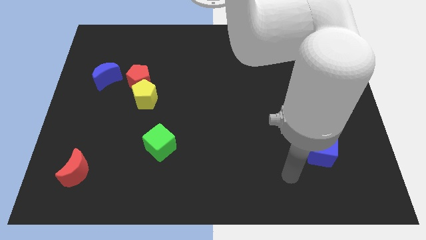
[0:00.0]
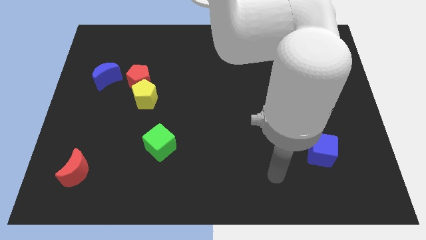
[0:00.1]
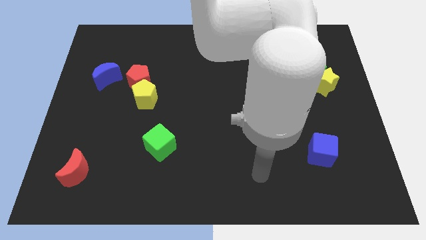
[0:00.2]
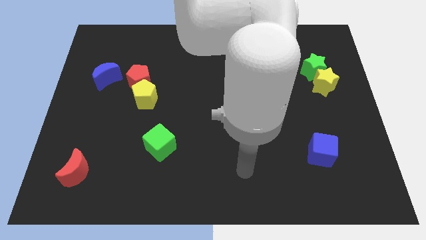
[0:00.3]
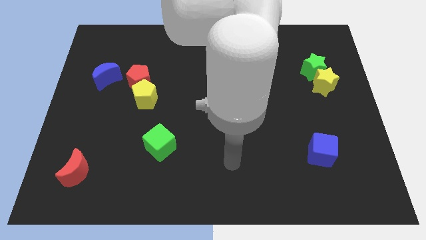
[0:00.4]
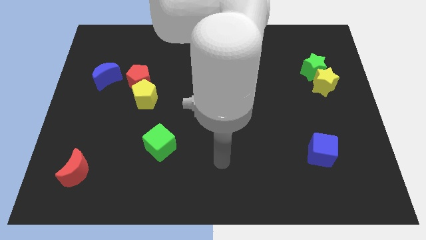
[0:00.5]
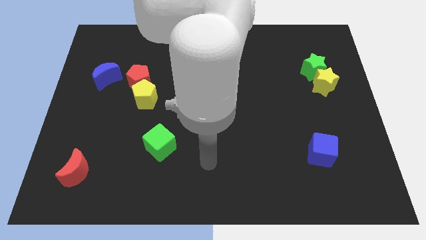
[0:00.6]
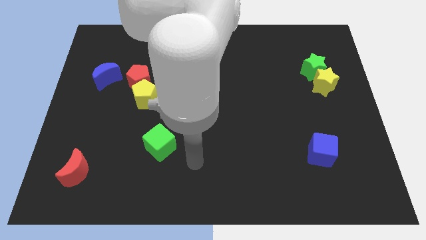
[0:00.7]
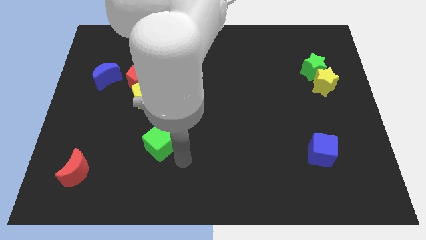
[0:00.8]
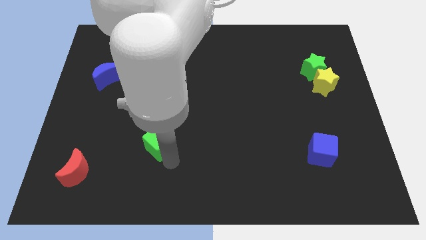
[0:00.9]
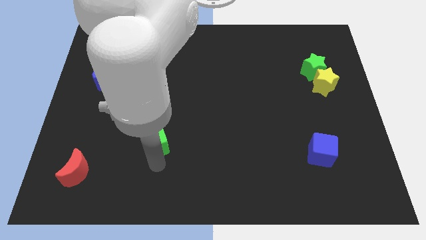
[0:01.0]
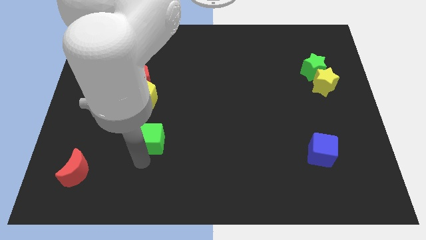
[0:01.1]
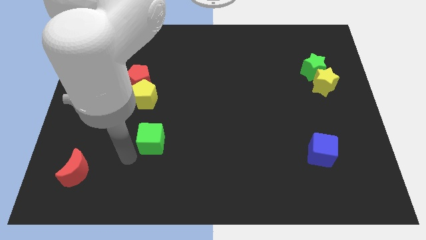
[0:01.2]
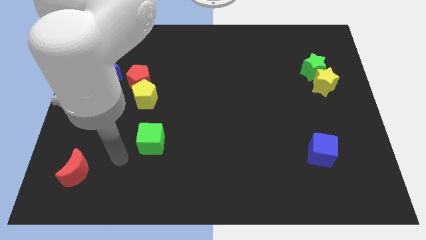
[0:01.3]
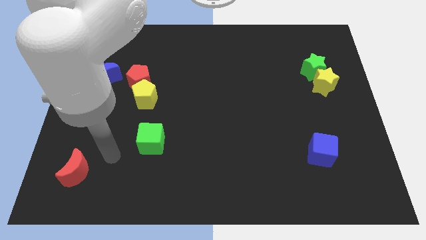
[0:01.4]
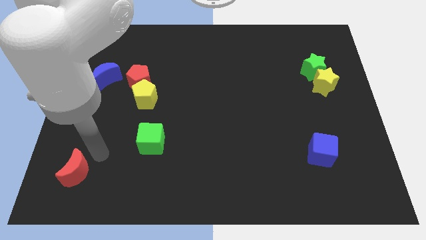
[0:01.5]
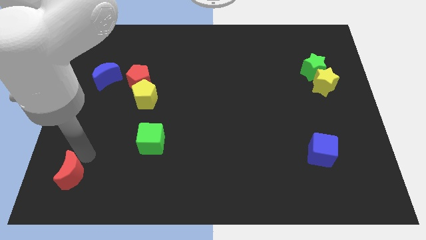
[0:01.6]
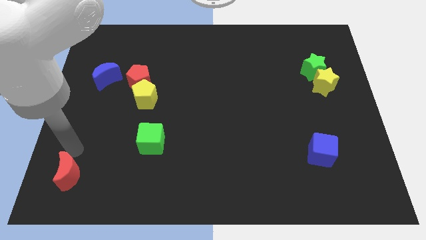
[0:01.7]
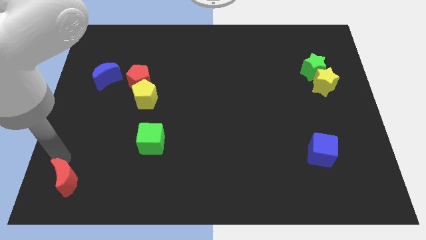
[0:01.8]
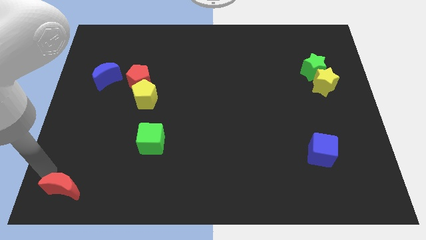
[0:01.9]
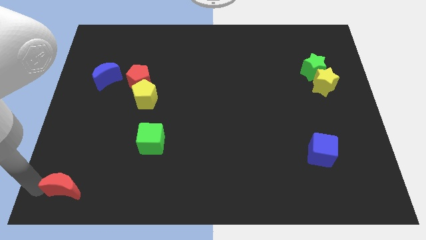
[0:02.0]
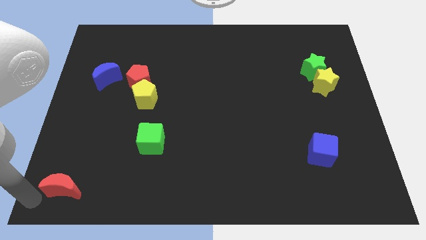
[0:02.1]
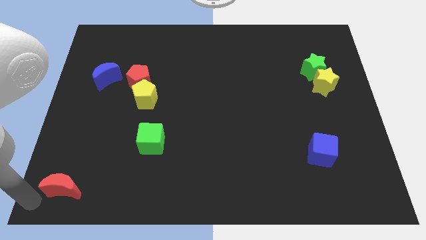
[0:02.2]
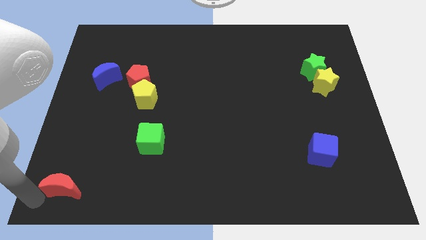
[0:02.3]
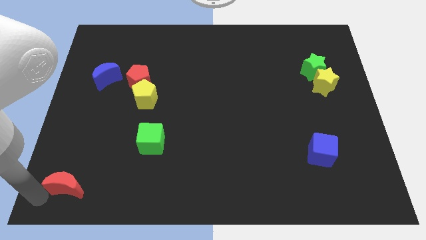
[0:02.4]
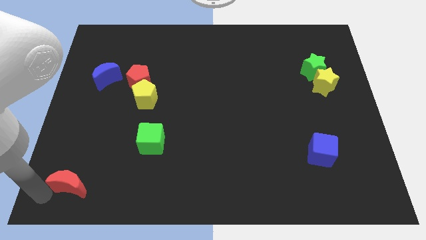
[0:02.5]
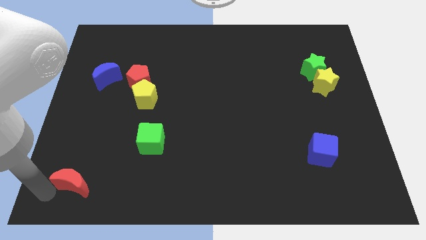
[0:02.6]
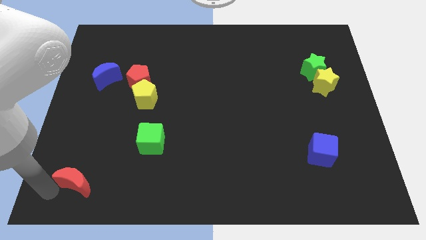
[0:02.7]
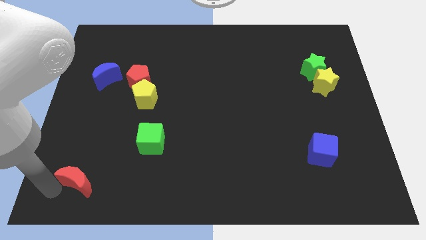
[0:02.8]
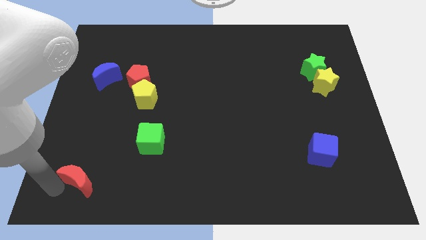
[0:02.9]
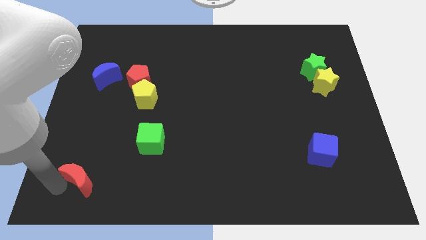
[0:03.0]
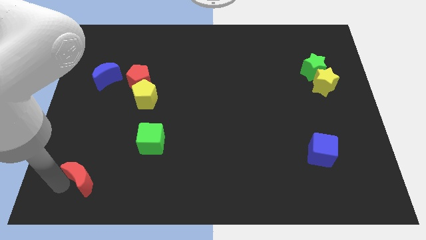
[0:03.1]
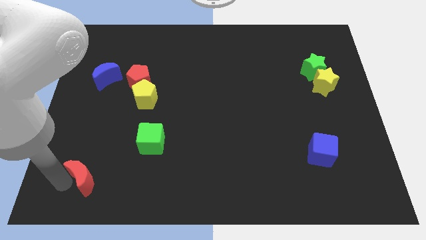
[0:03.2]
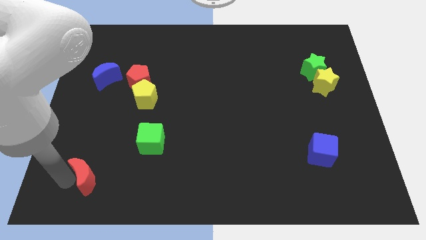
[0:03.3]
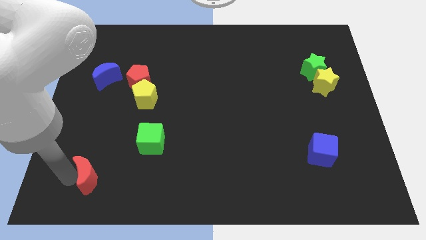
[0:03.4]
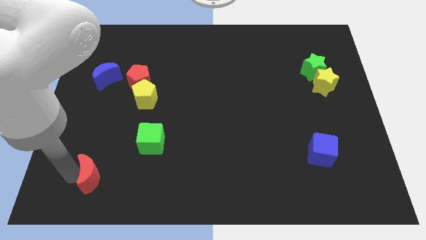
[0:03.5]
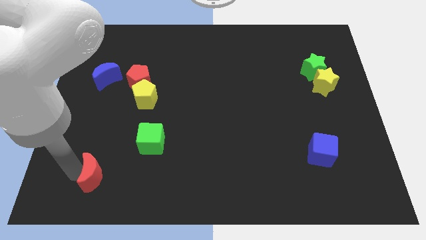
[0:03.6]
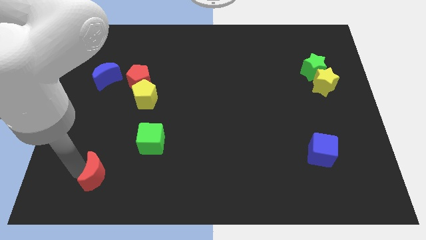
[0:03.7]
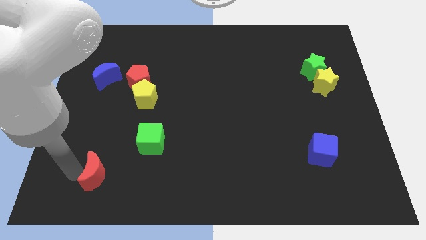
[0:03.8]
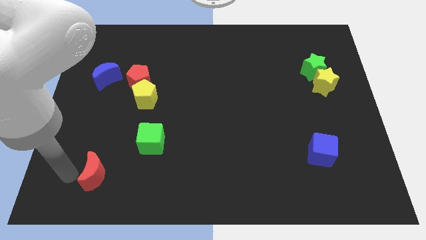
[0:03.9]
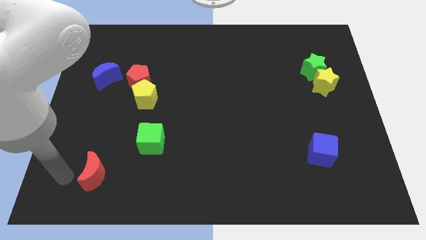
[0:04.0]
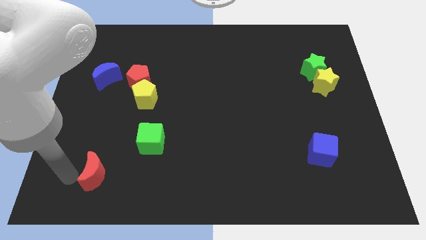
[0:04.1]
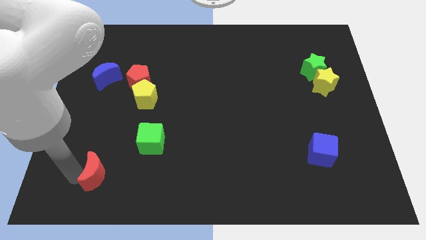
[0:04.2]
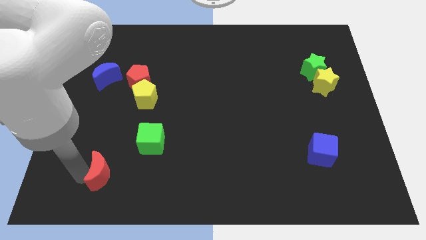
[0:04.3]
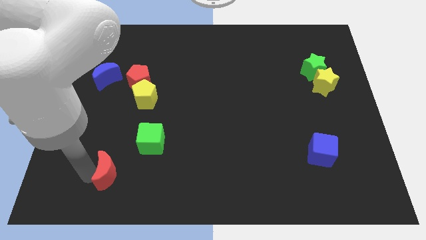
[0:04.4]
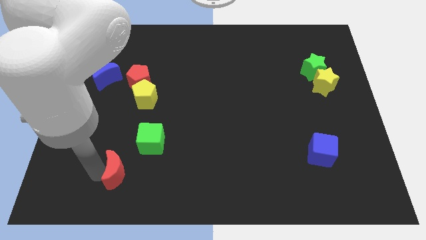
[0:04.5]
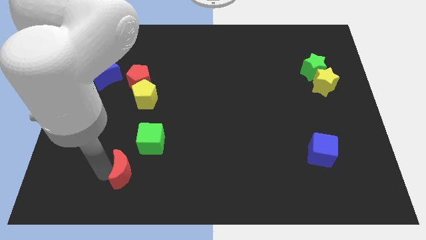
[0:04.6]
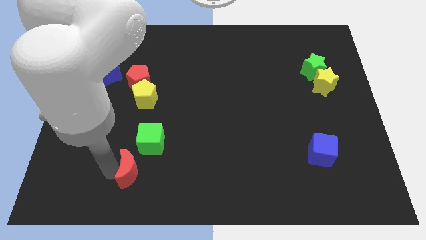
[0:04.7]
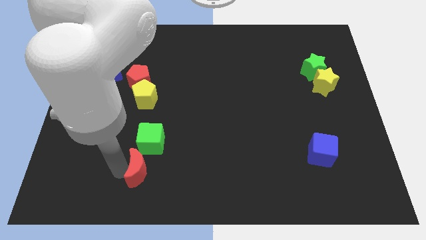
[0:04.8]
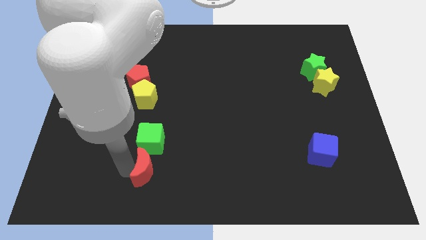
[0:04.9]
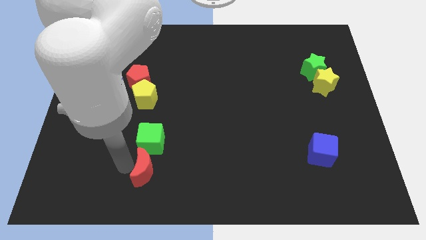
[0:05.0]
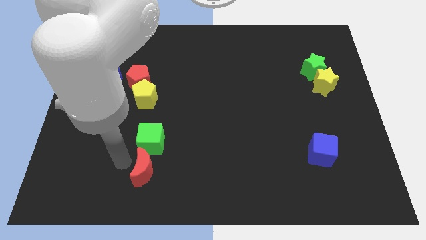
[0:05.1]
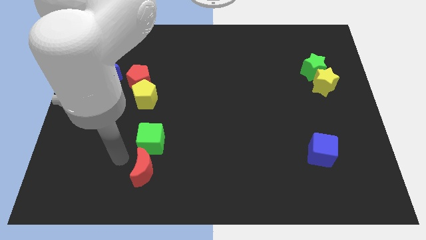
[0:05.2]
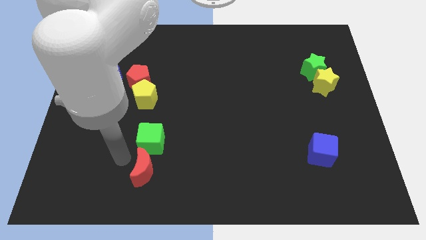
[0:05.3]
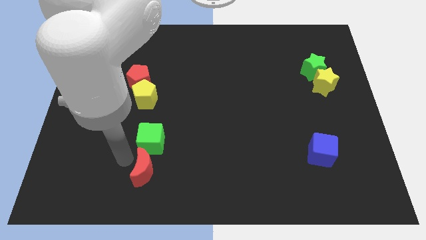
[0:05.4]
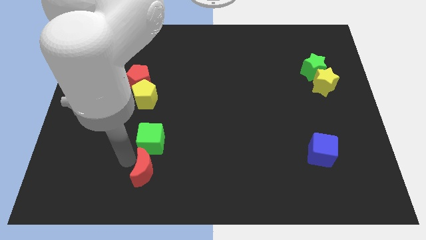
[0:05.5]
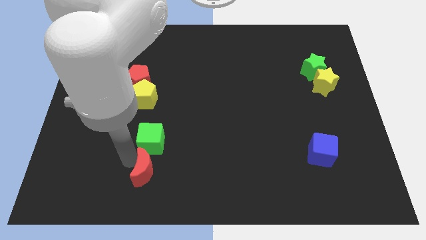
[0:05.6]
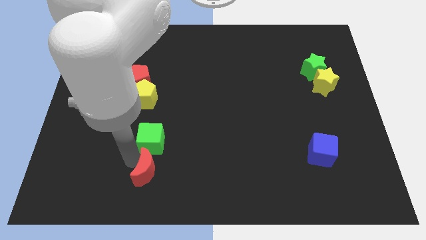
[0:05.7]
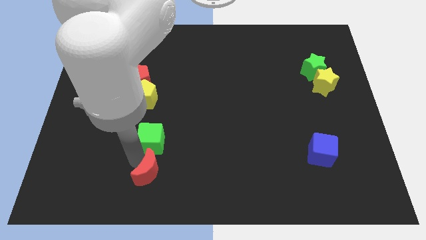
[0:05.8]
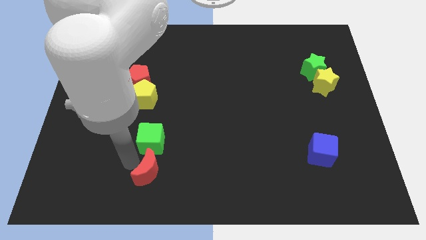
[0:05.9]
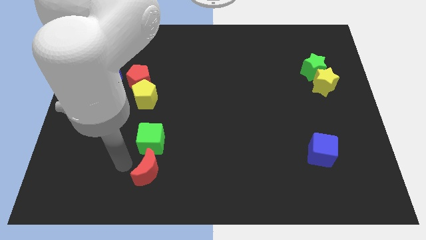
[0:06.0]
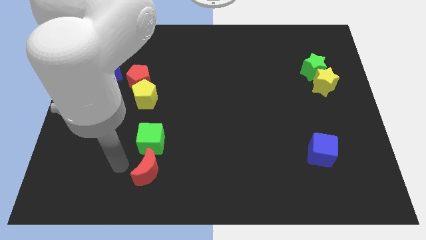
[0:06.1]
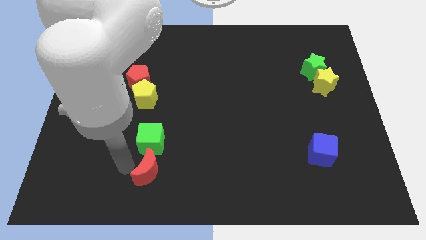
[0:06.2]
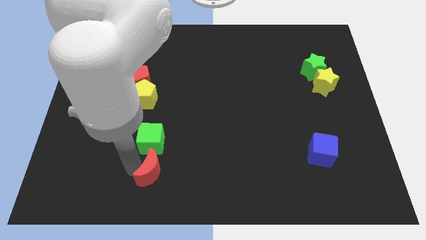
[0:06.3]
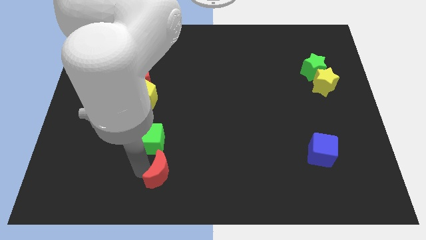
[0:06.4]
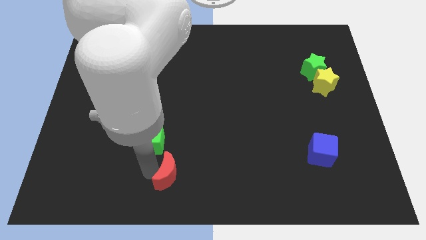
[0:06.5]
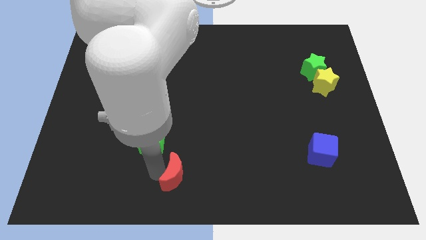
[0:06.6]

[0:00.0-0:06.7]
slide the red moon to the right

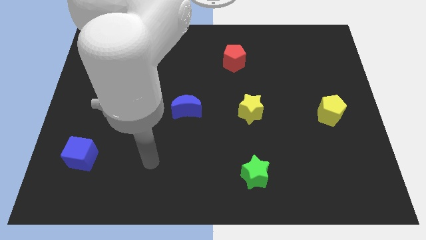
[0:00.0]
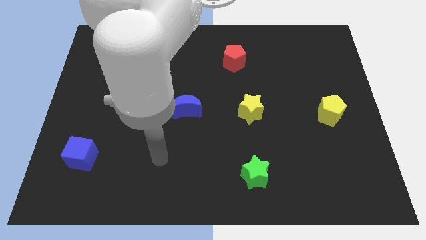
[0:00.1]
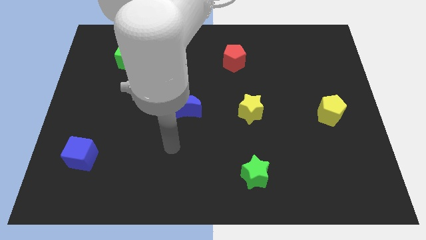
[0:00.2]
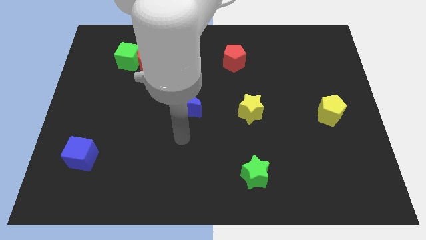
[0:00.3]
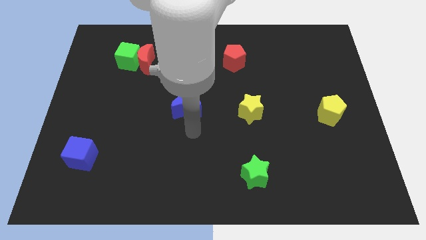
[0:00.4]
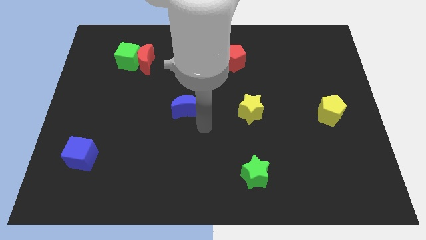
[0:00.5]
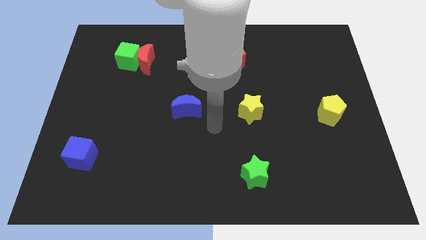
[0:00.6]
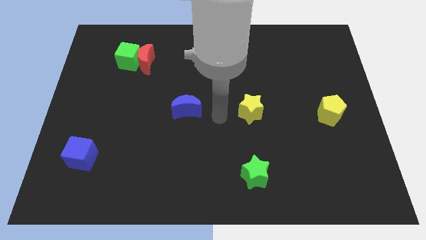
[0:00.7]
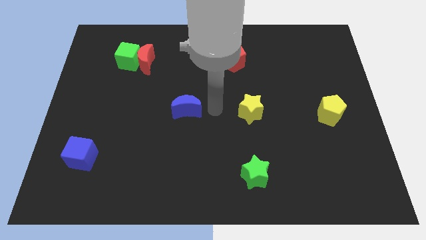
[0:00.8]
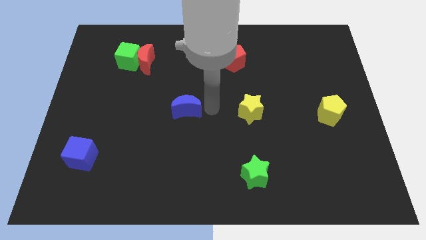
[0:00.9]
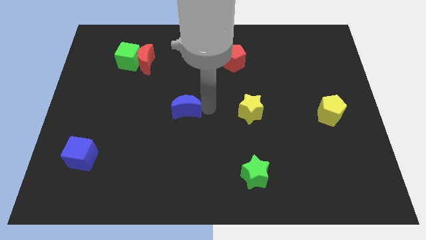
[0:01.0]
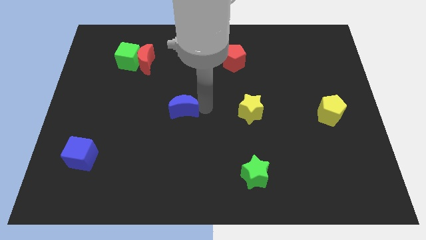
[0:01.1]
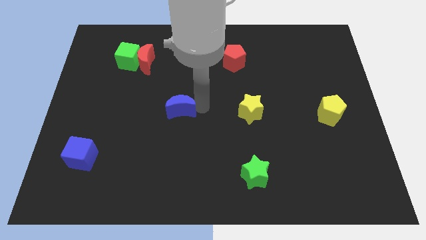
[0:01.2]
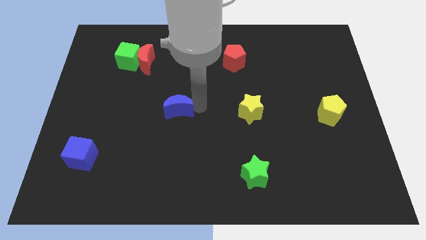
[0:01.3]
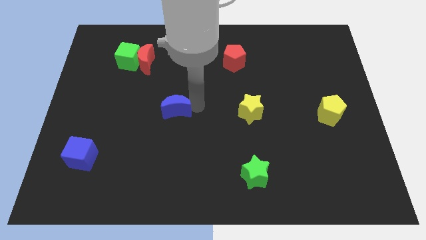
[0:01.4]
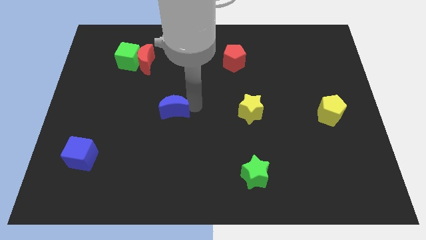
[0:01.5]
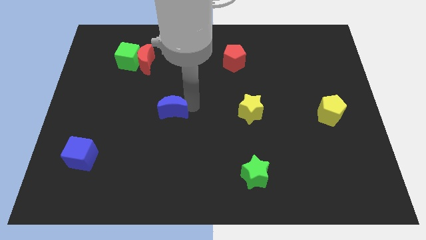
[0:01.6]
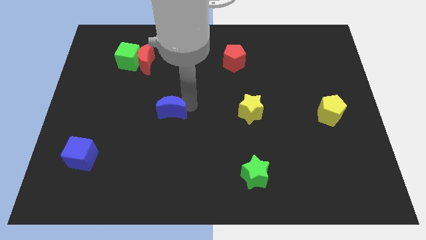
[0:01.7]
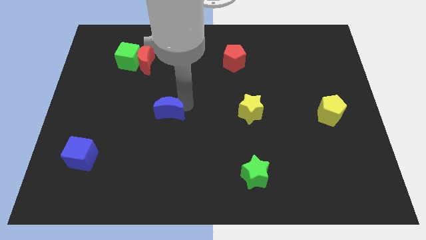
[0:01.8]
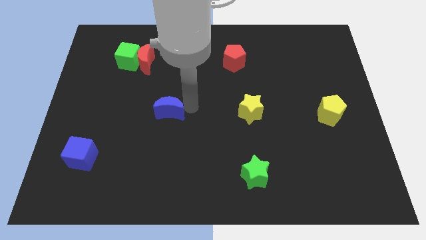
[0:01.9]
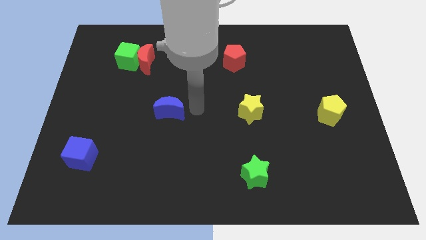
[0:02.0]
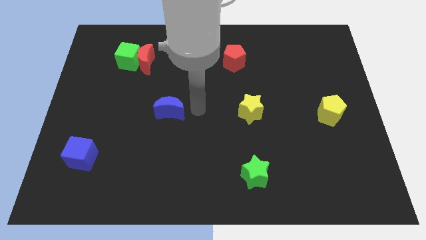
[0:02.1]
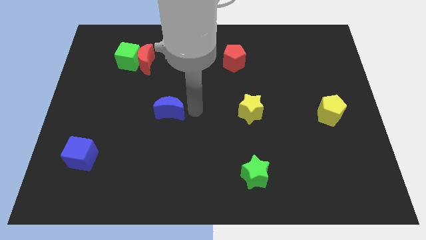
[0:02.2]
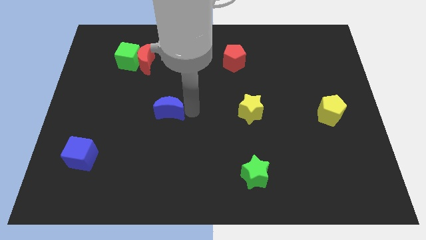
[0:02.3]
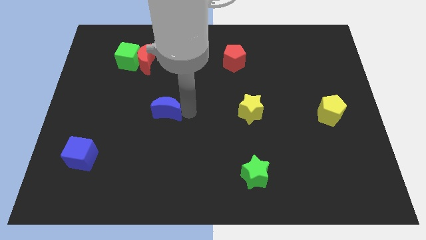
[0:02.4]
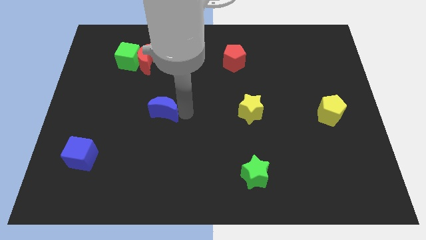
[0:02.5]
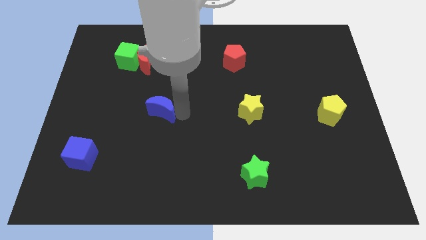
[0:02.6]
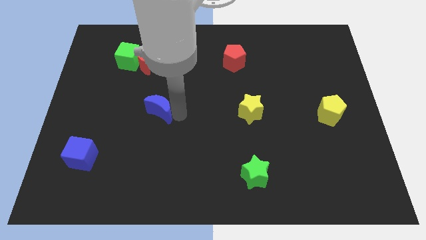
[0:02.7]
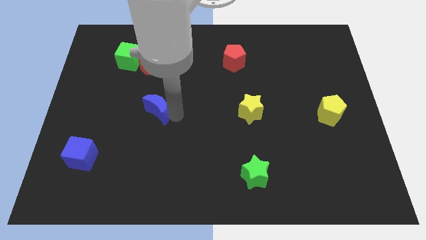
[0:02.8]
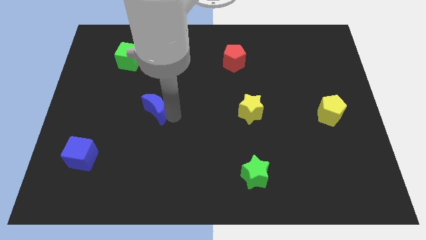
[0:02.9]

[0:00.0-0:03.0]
slide the blue moon a little bit left
